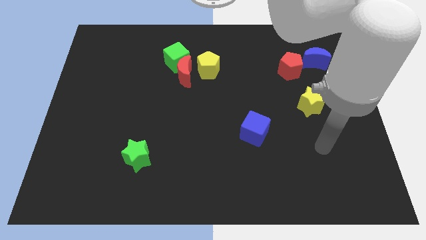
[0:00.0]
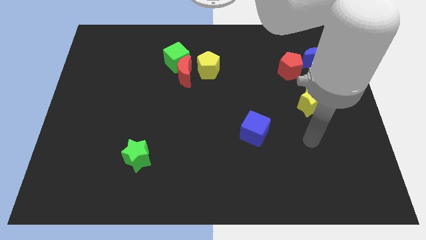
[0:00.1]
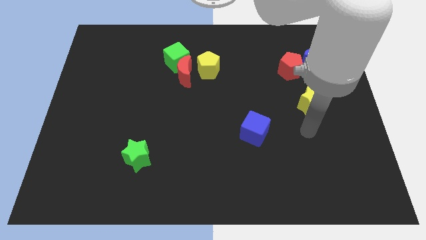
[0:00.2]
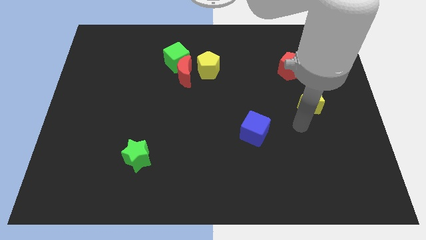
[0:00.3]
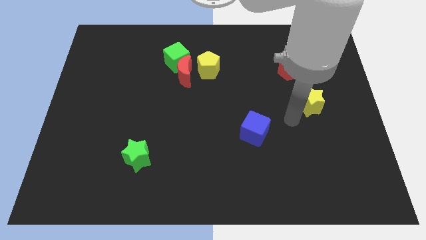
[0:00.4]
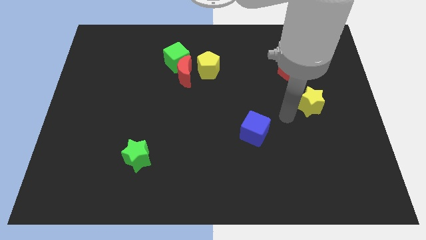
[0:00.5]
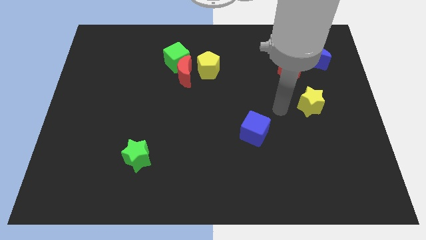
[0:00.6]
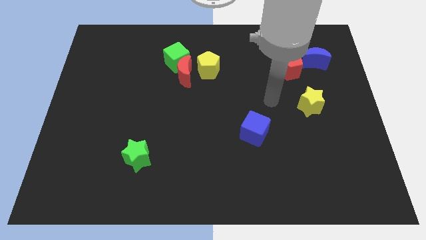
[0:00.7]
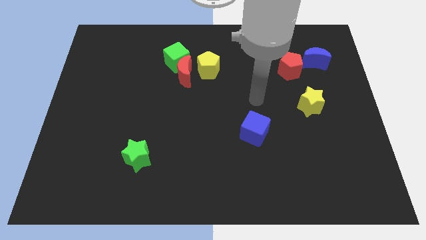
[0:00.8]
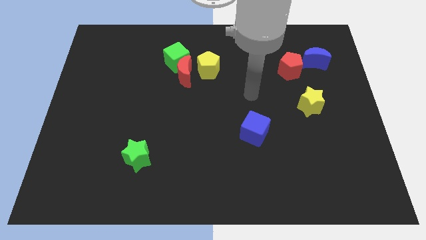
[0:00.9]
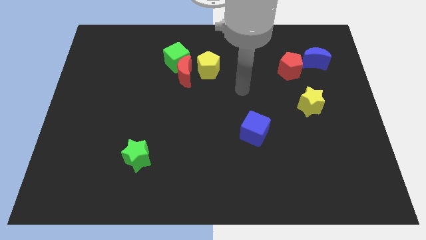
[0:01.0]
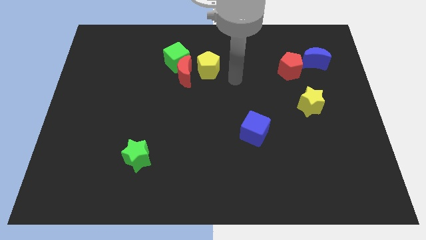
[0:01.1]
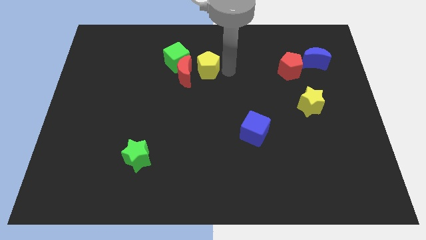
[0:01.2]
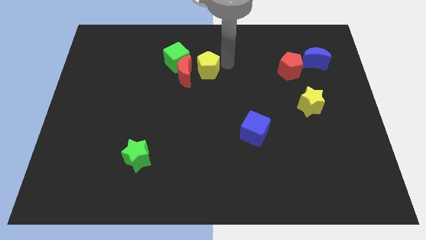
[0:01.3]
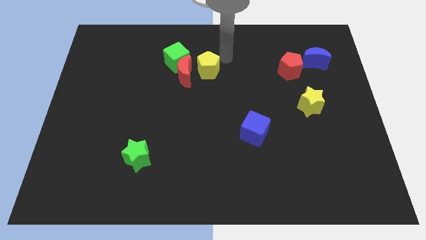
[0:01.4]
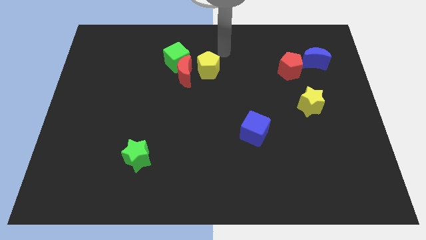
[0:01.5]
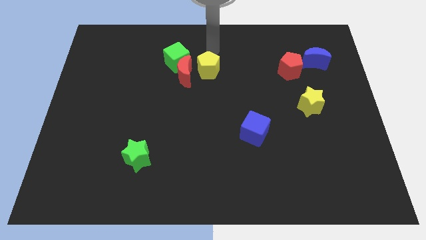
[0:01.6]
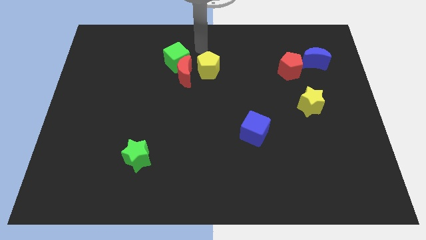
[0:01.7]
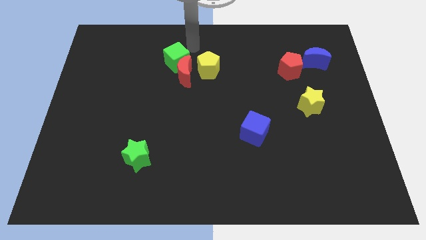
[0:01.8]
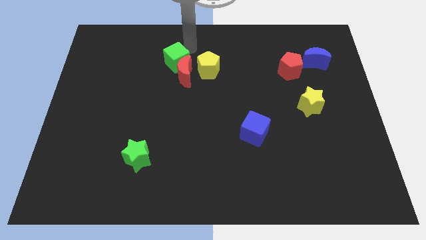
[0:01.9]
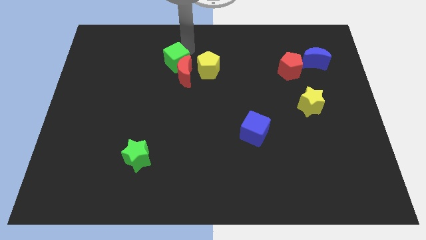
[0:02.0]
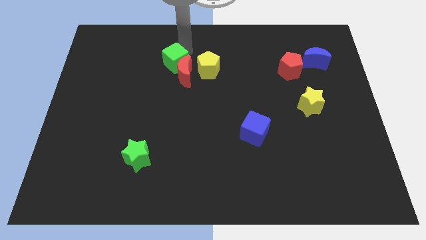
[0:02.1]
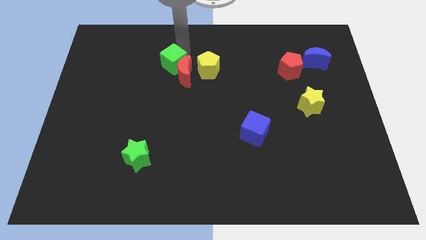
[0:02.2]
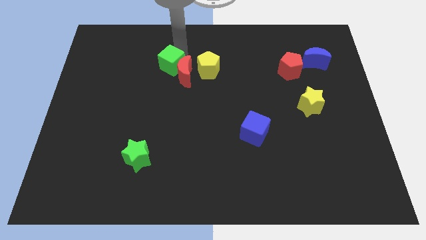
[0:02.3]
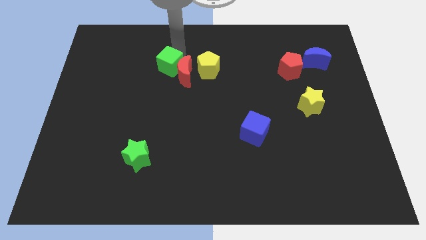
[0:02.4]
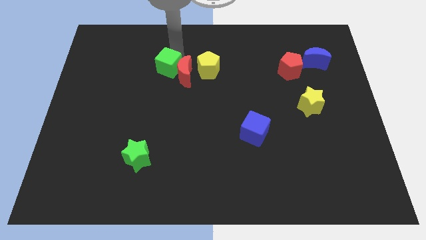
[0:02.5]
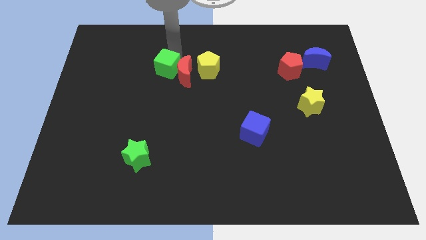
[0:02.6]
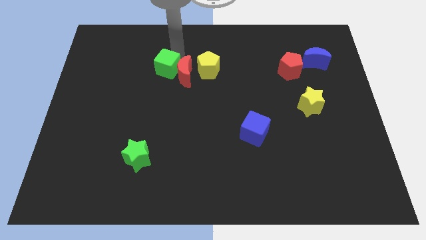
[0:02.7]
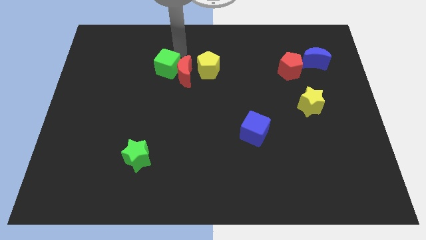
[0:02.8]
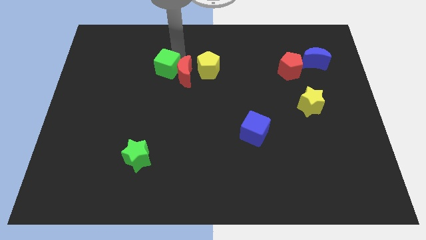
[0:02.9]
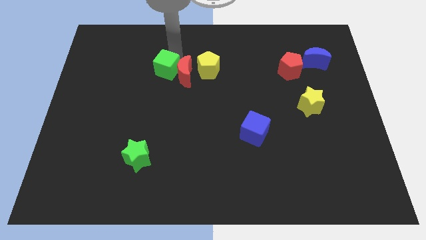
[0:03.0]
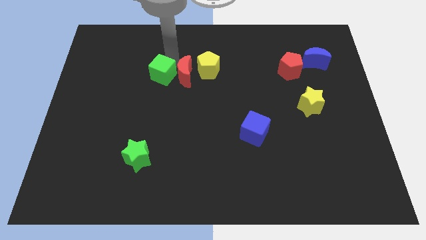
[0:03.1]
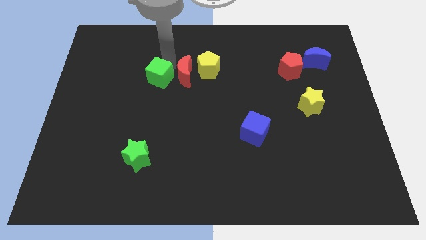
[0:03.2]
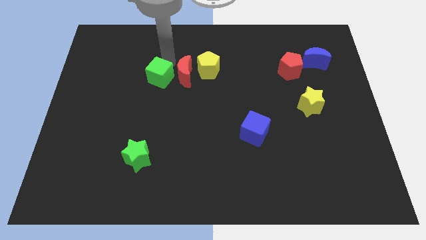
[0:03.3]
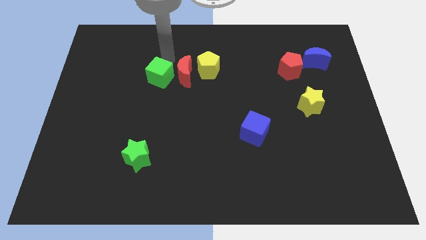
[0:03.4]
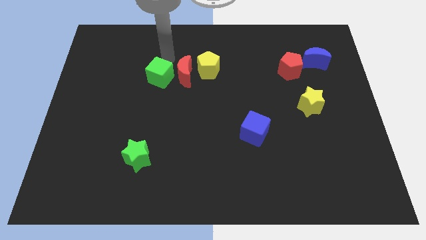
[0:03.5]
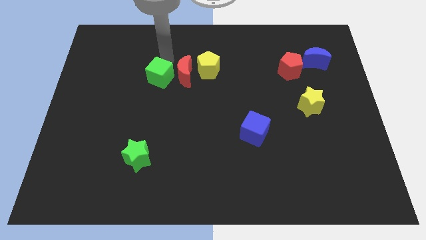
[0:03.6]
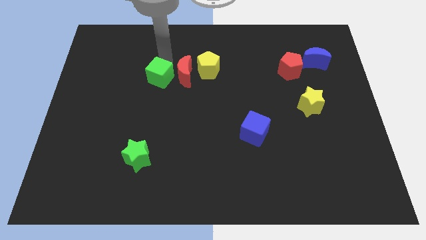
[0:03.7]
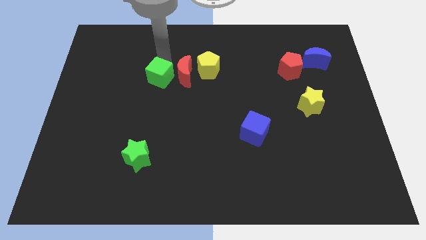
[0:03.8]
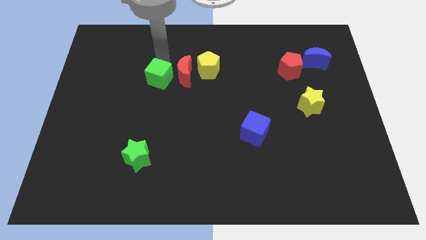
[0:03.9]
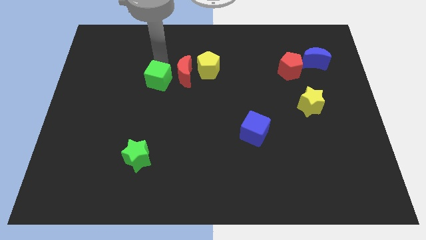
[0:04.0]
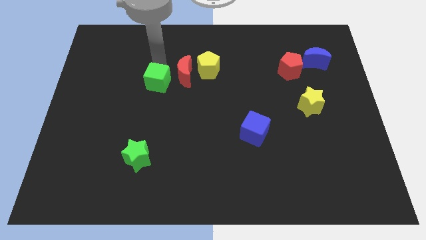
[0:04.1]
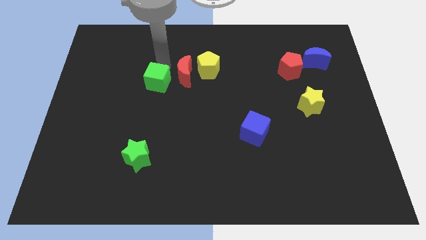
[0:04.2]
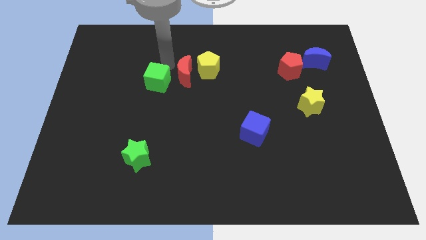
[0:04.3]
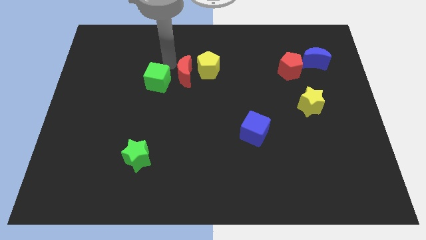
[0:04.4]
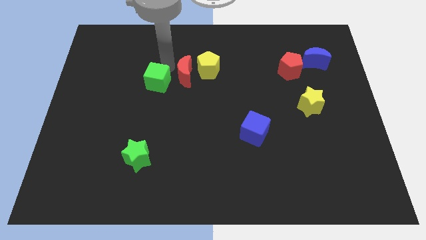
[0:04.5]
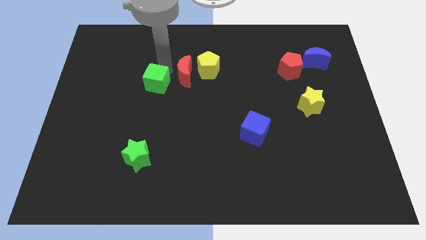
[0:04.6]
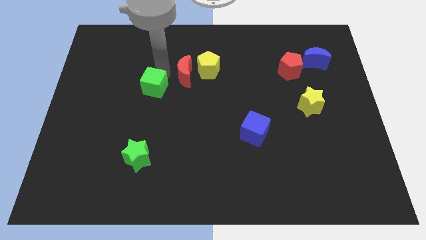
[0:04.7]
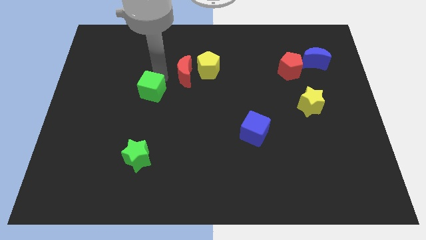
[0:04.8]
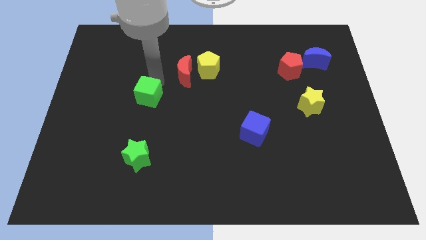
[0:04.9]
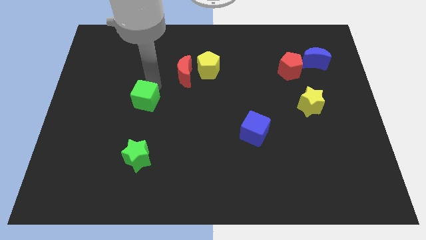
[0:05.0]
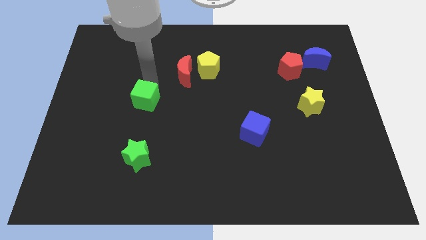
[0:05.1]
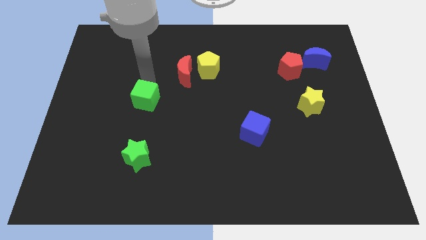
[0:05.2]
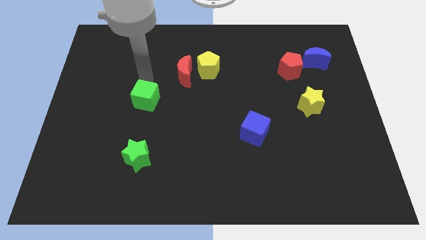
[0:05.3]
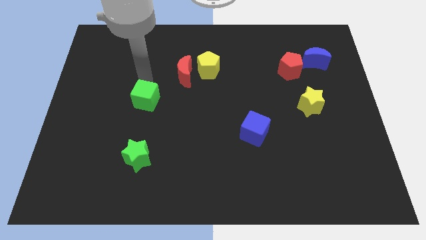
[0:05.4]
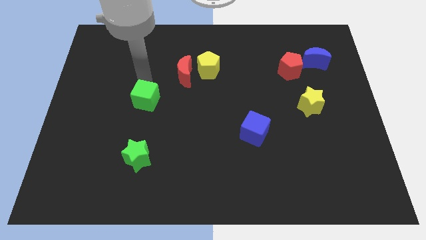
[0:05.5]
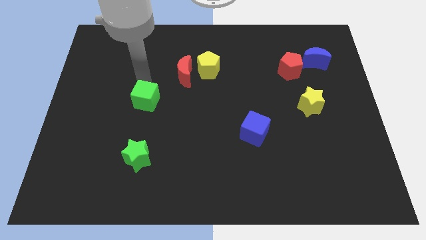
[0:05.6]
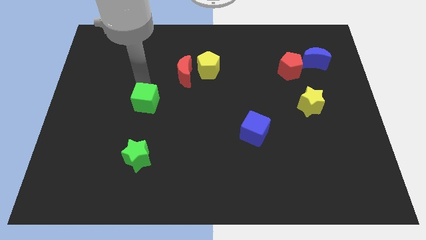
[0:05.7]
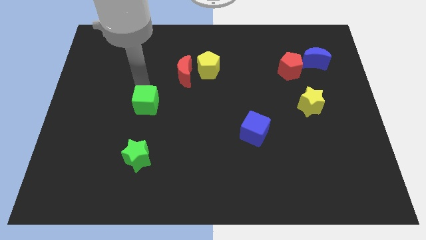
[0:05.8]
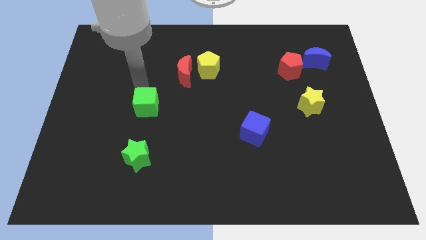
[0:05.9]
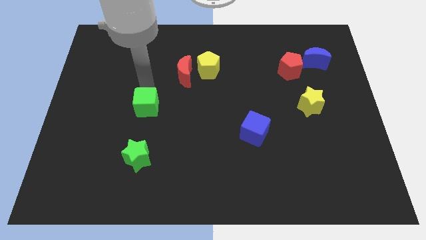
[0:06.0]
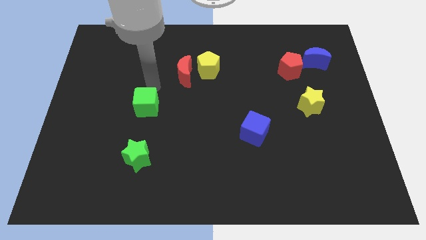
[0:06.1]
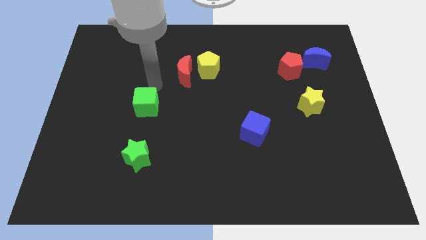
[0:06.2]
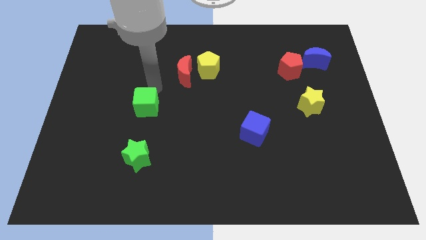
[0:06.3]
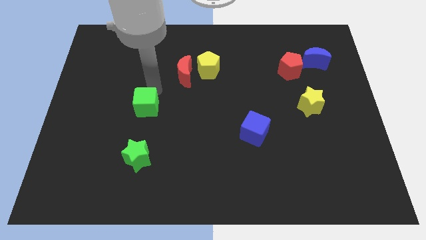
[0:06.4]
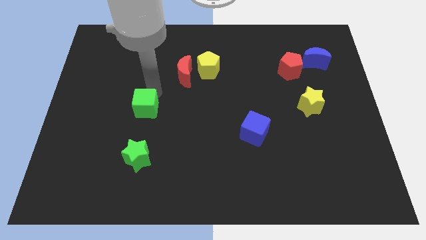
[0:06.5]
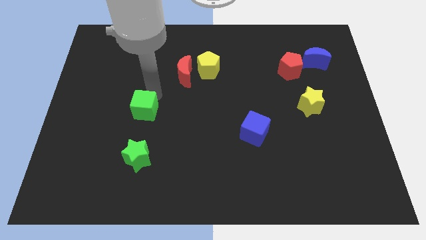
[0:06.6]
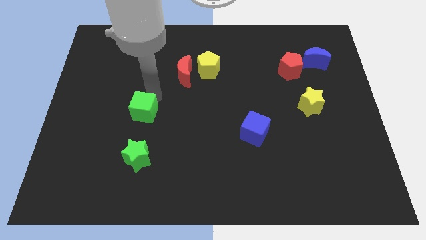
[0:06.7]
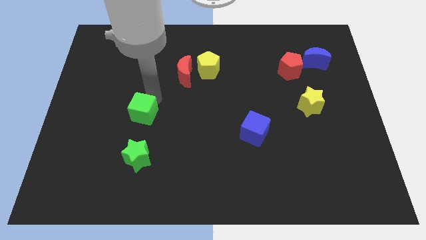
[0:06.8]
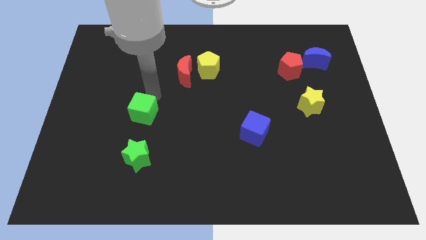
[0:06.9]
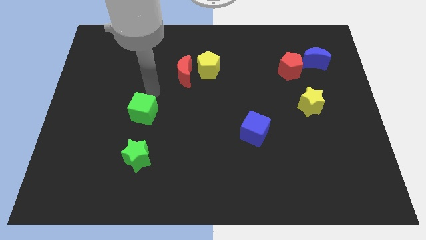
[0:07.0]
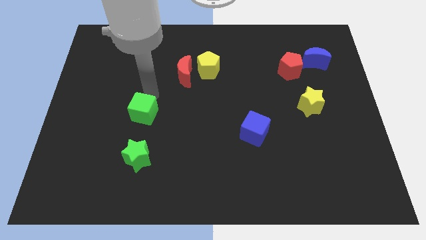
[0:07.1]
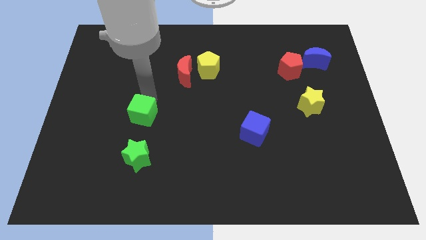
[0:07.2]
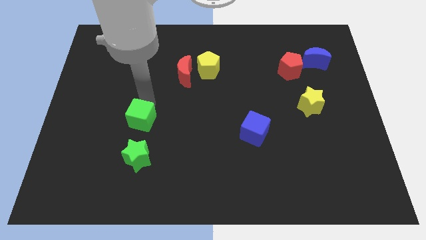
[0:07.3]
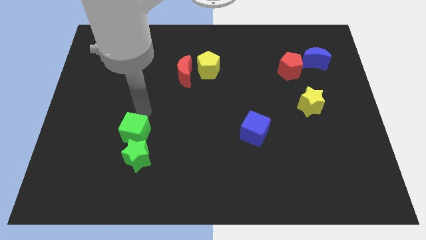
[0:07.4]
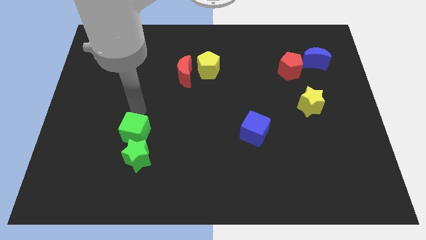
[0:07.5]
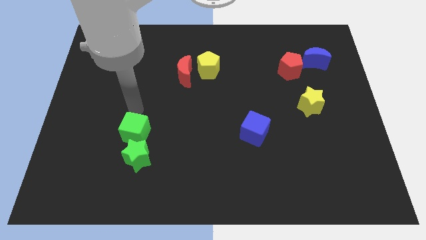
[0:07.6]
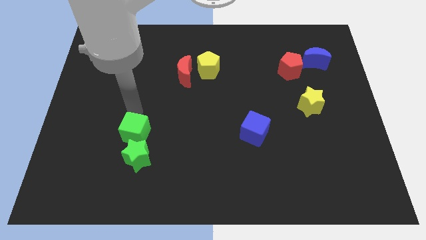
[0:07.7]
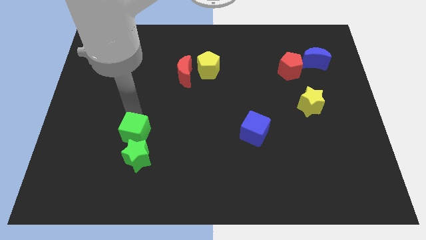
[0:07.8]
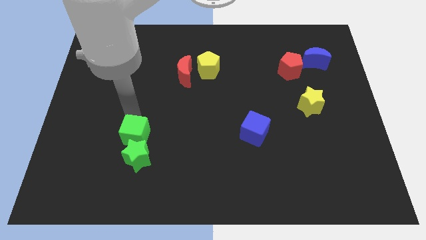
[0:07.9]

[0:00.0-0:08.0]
put the green cube to the green star
